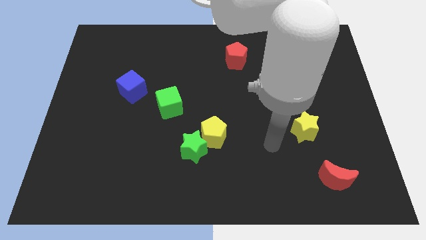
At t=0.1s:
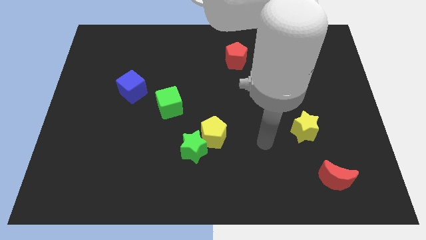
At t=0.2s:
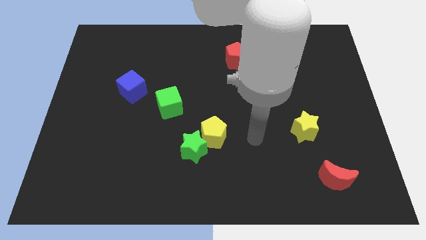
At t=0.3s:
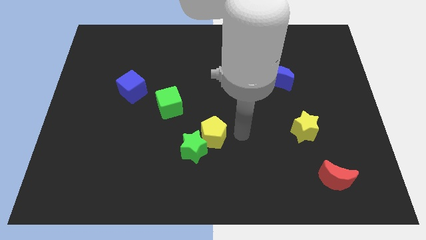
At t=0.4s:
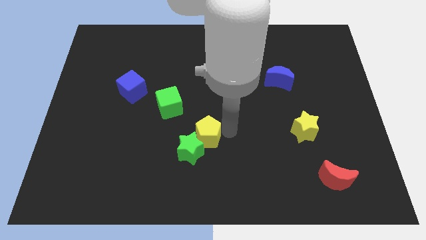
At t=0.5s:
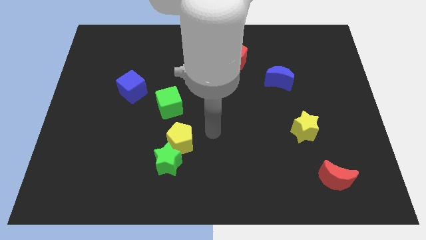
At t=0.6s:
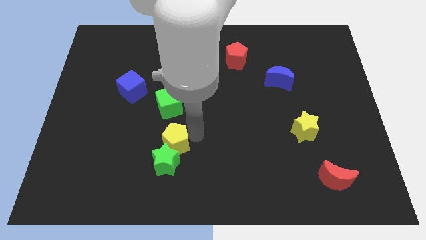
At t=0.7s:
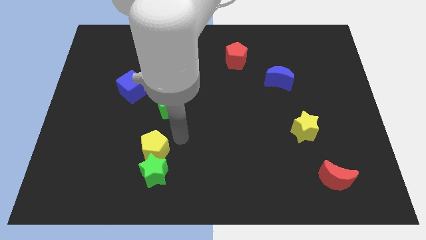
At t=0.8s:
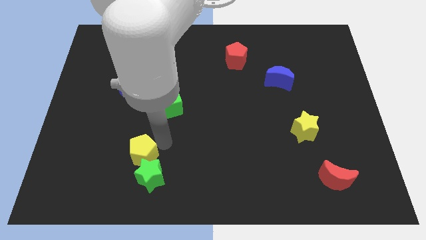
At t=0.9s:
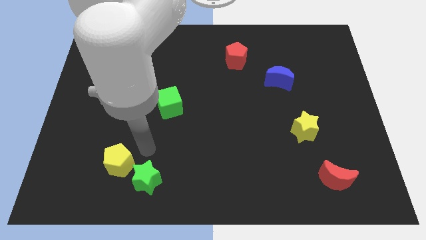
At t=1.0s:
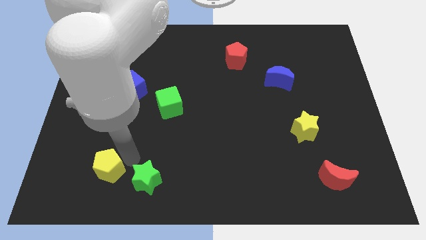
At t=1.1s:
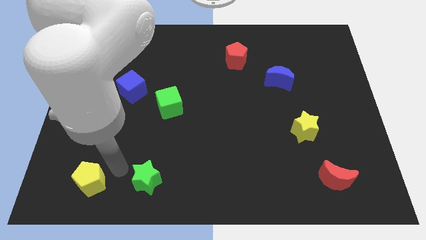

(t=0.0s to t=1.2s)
move the green star away from the yellow pentagon

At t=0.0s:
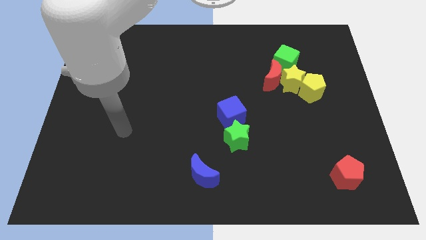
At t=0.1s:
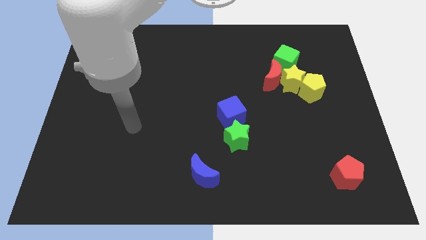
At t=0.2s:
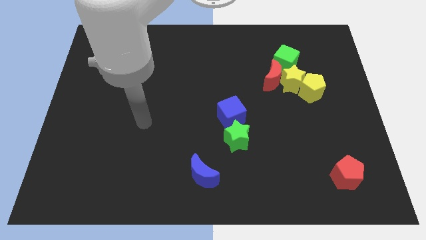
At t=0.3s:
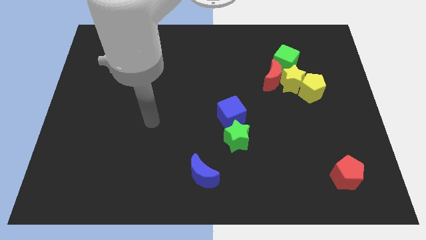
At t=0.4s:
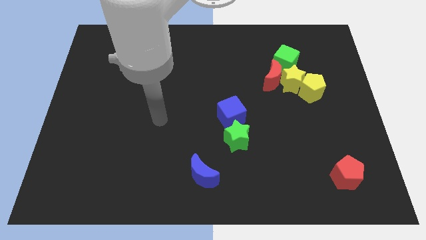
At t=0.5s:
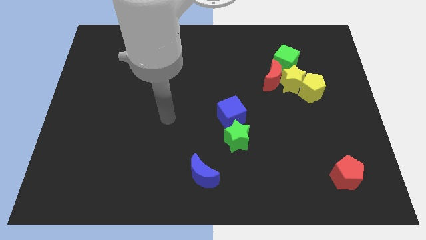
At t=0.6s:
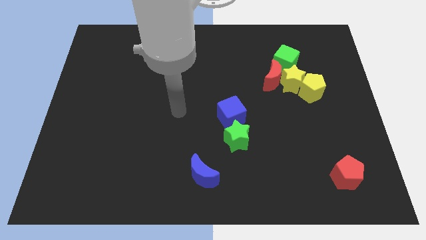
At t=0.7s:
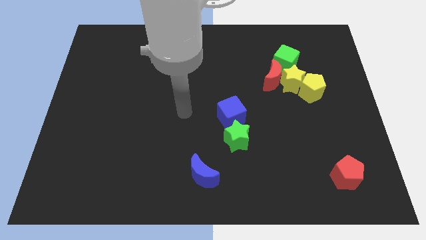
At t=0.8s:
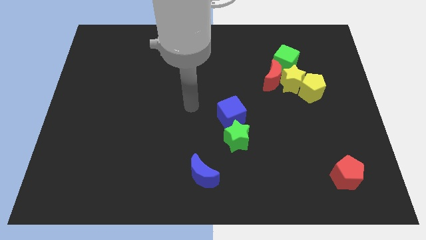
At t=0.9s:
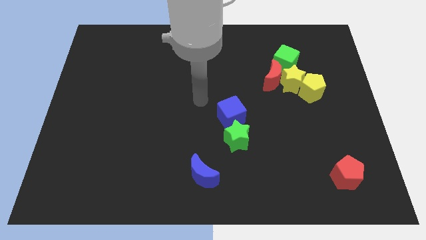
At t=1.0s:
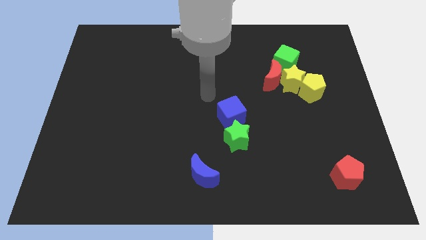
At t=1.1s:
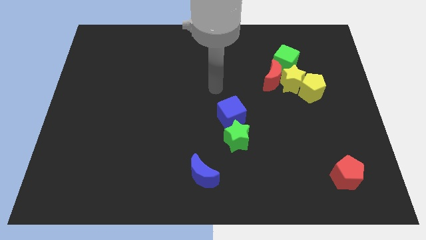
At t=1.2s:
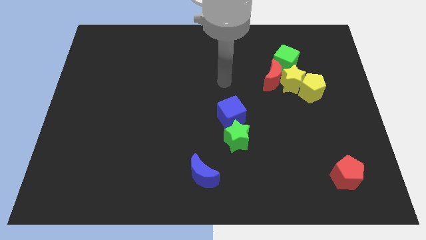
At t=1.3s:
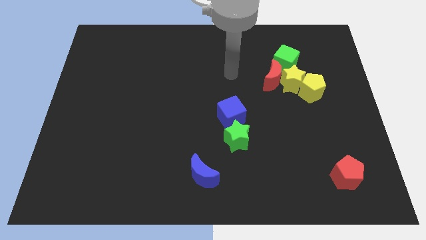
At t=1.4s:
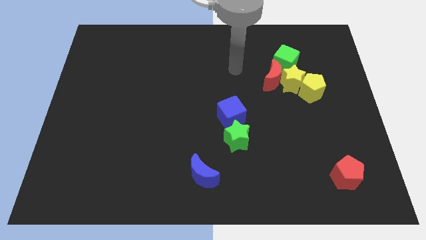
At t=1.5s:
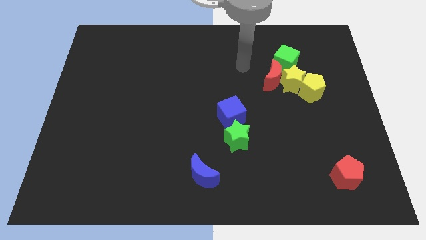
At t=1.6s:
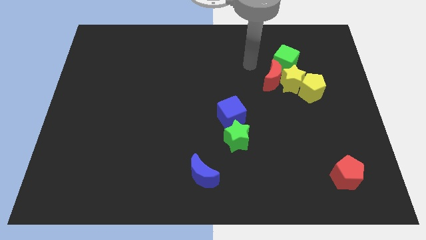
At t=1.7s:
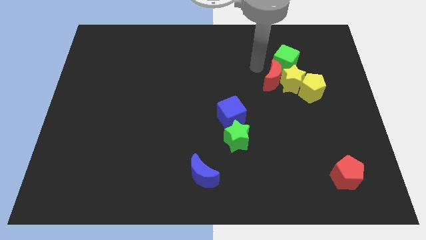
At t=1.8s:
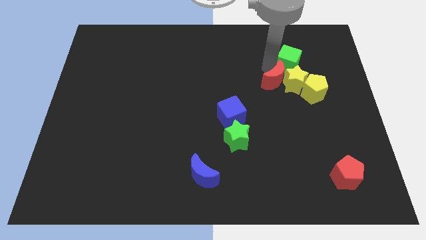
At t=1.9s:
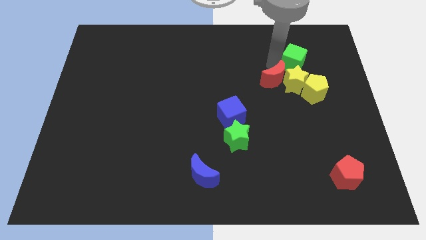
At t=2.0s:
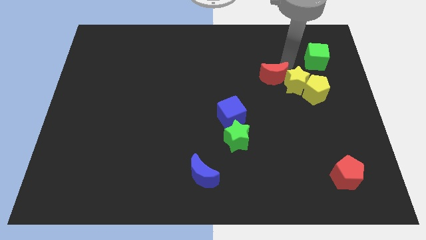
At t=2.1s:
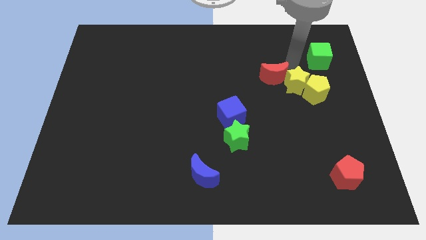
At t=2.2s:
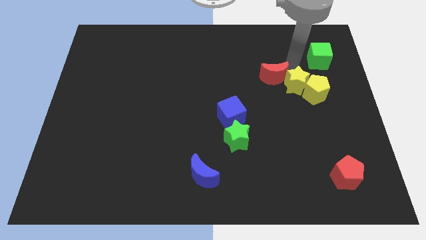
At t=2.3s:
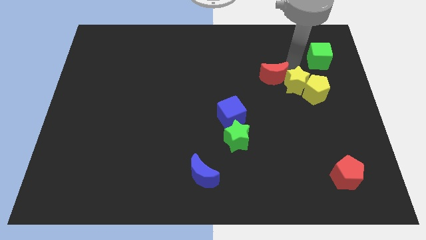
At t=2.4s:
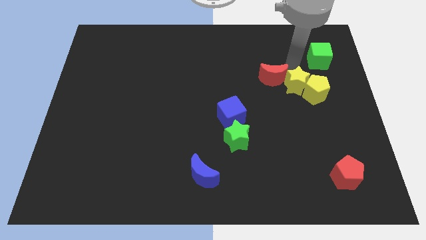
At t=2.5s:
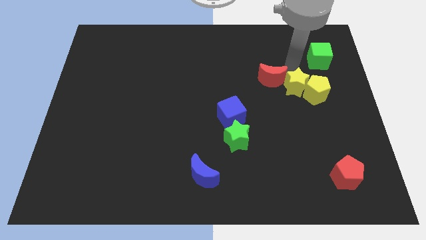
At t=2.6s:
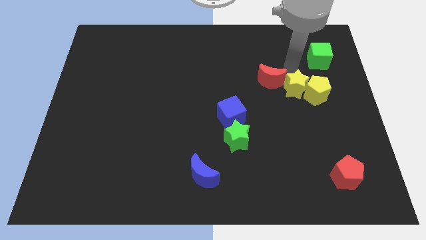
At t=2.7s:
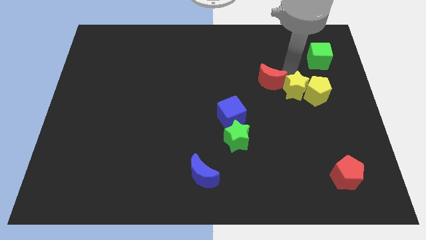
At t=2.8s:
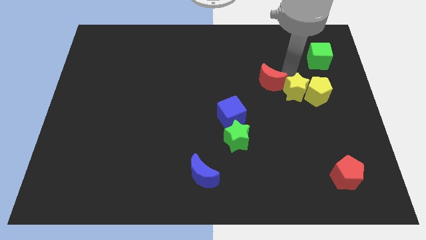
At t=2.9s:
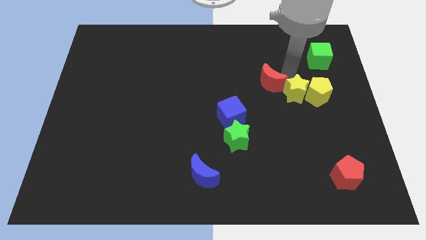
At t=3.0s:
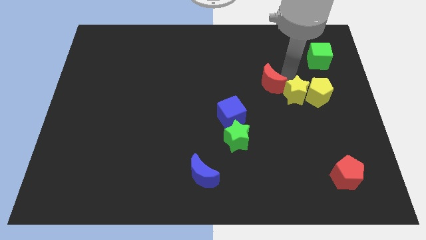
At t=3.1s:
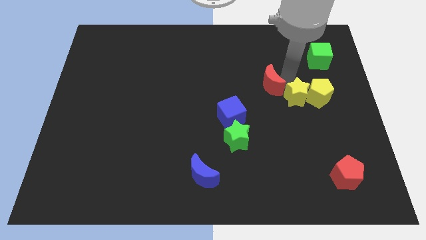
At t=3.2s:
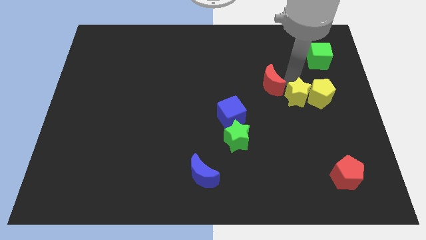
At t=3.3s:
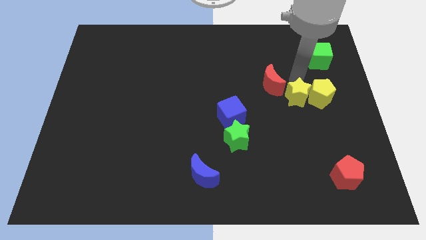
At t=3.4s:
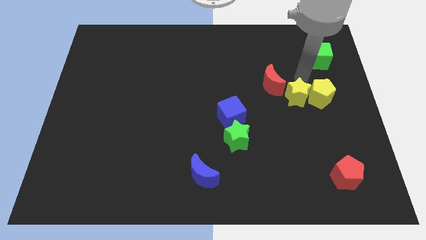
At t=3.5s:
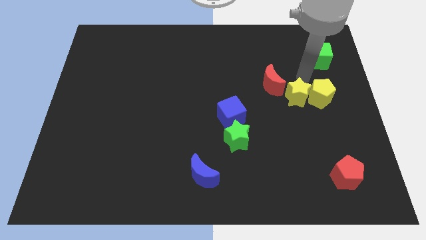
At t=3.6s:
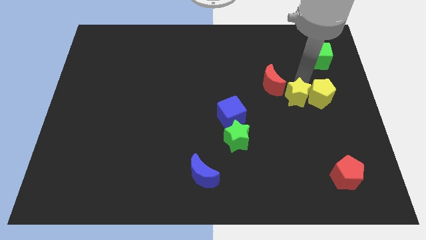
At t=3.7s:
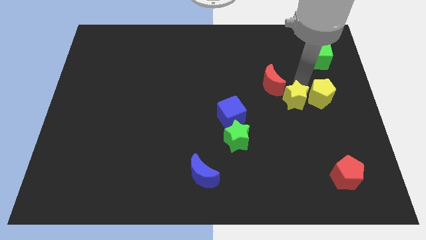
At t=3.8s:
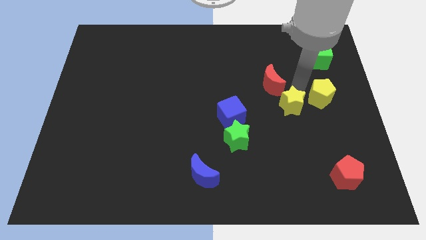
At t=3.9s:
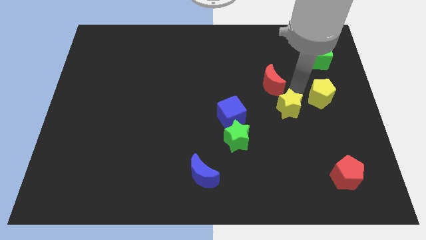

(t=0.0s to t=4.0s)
move the yellow star away from the group of blocks

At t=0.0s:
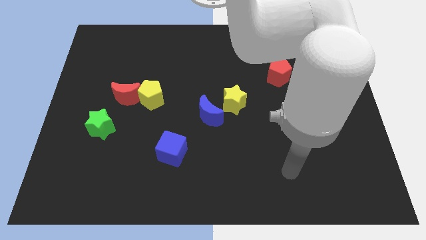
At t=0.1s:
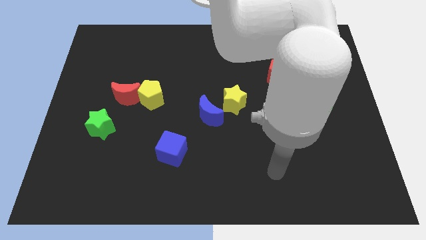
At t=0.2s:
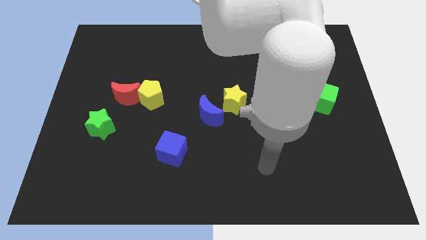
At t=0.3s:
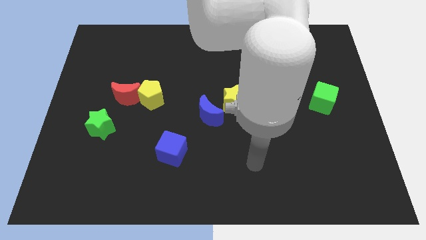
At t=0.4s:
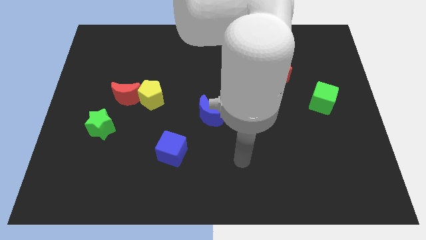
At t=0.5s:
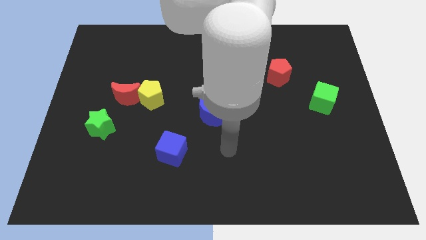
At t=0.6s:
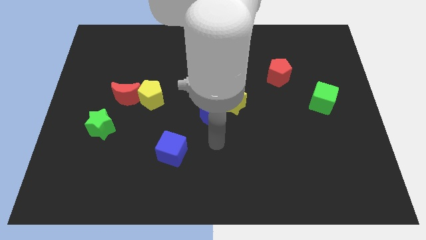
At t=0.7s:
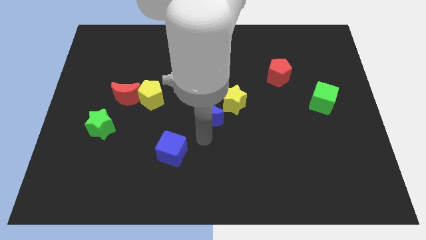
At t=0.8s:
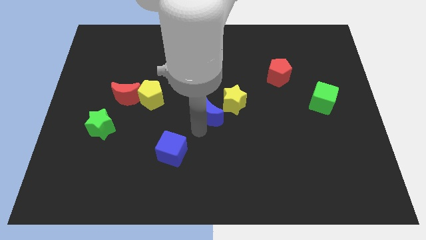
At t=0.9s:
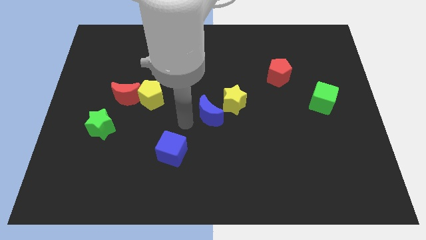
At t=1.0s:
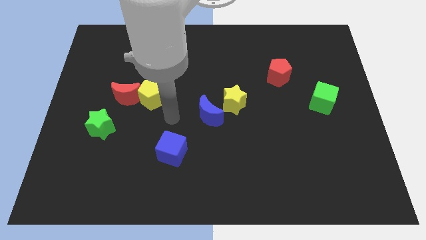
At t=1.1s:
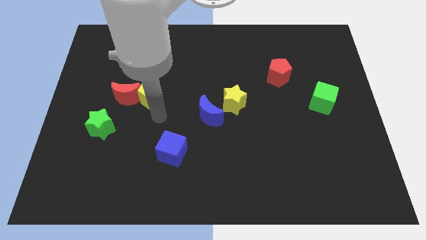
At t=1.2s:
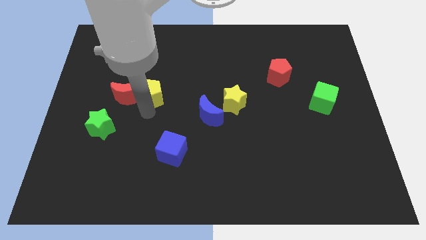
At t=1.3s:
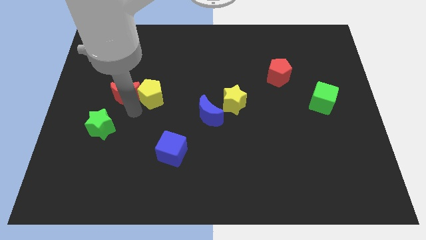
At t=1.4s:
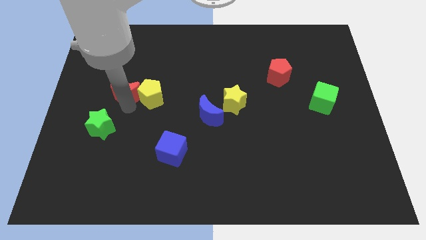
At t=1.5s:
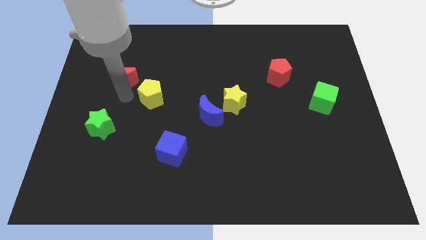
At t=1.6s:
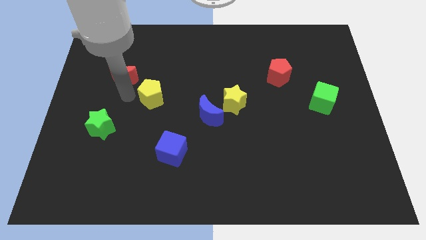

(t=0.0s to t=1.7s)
move the yellow pentagon away from the red moon

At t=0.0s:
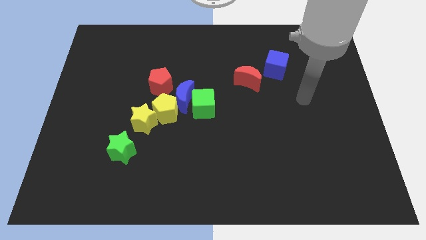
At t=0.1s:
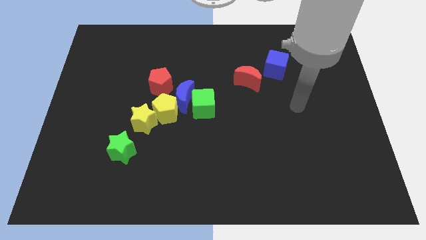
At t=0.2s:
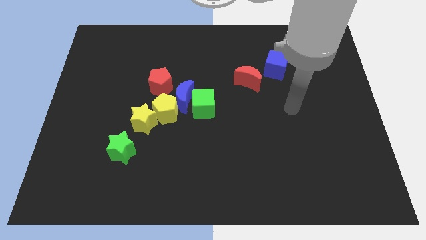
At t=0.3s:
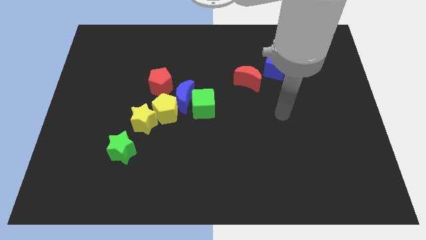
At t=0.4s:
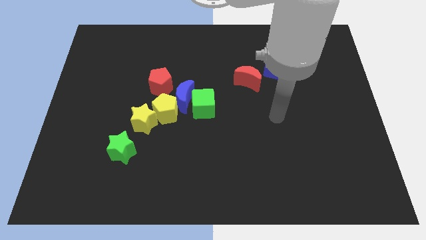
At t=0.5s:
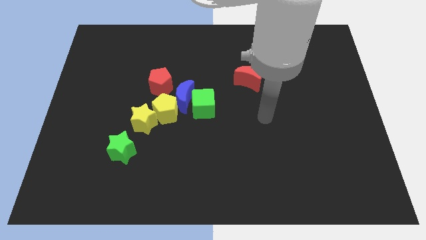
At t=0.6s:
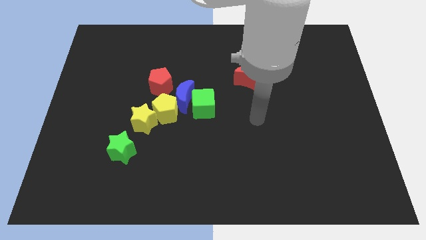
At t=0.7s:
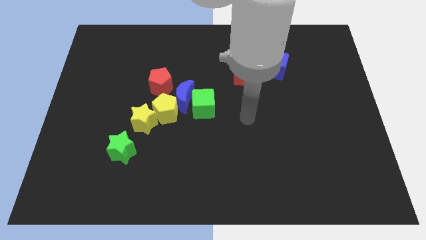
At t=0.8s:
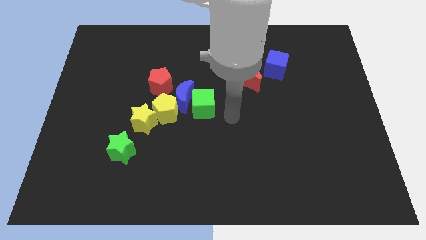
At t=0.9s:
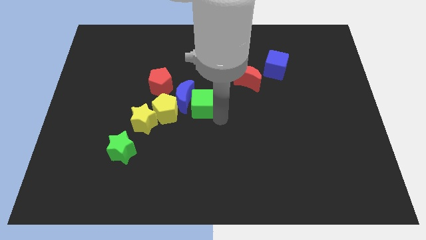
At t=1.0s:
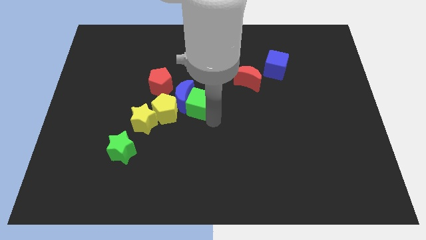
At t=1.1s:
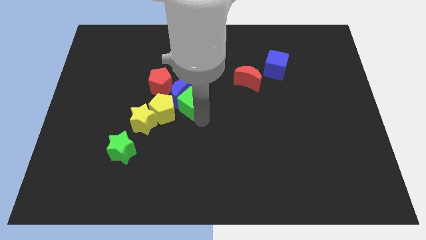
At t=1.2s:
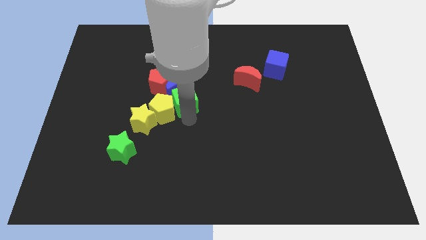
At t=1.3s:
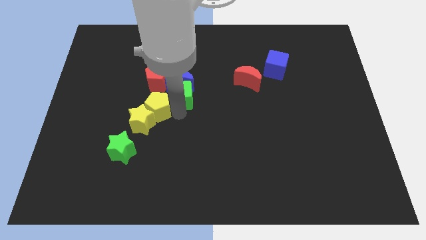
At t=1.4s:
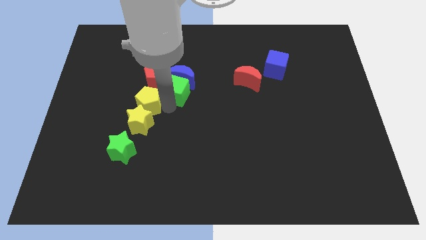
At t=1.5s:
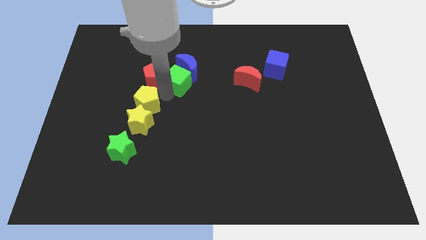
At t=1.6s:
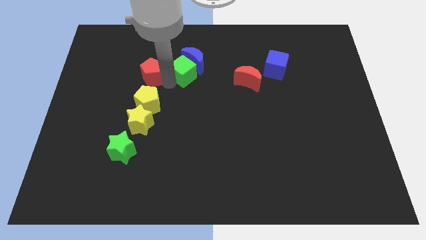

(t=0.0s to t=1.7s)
pull the blue moon apart from the clump

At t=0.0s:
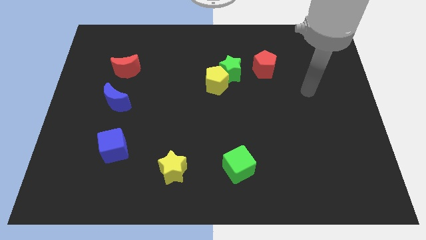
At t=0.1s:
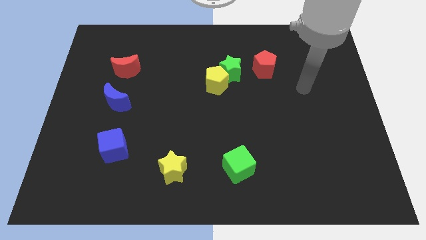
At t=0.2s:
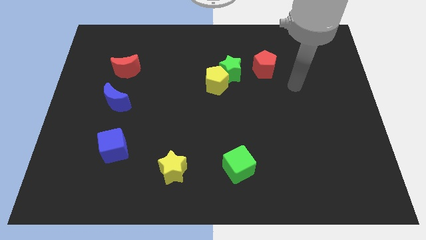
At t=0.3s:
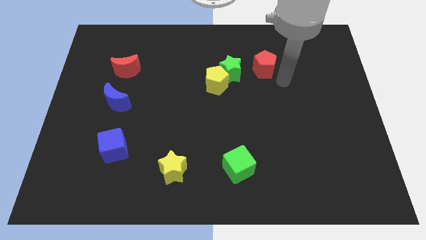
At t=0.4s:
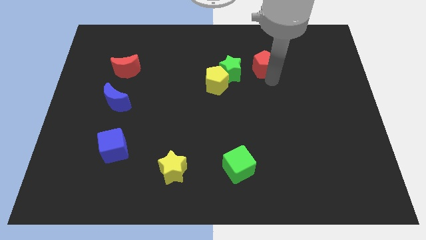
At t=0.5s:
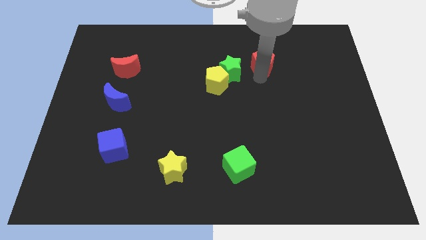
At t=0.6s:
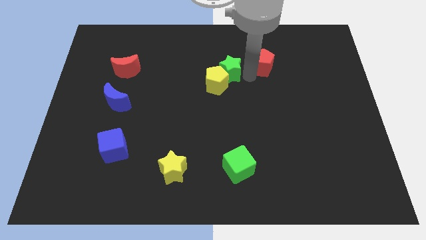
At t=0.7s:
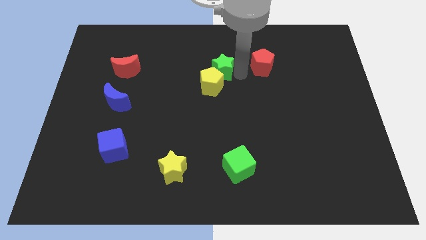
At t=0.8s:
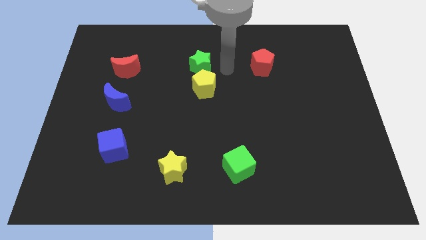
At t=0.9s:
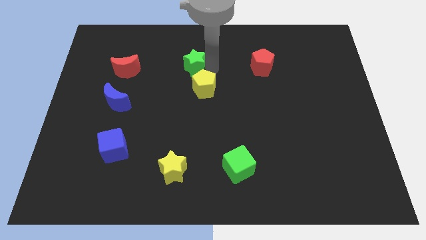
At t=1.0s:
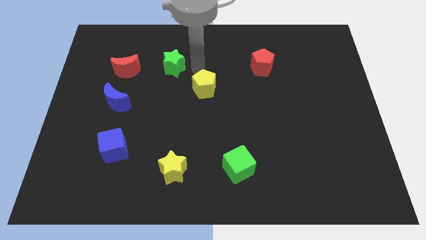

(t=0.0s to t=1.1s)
move the yellow pentagon away from the green star
